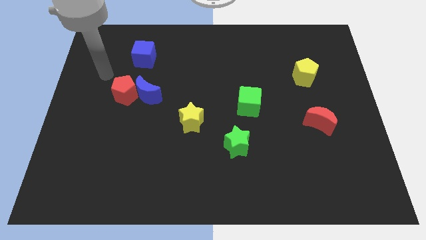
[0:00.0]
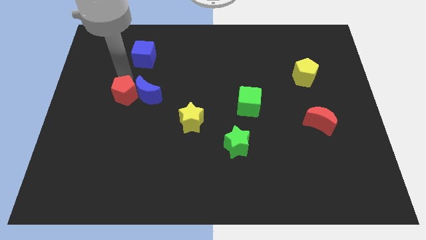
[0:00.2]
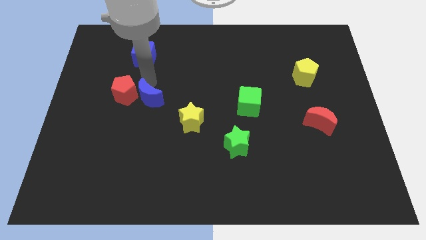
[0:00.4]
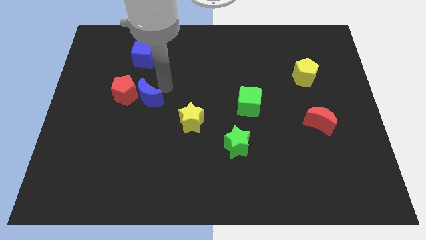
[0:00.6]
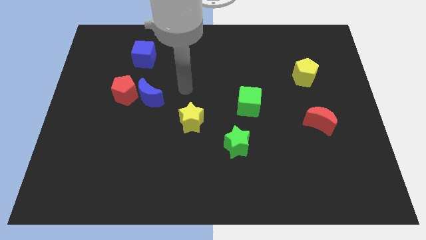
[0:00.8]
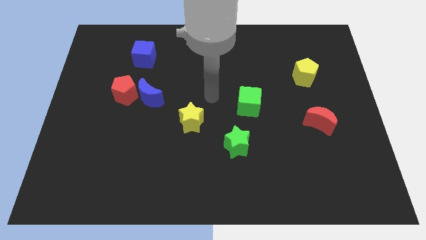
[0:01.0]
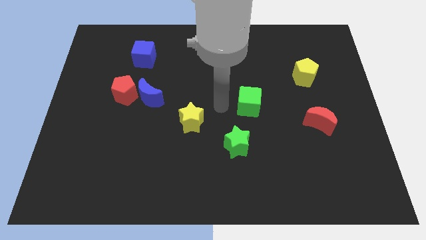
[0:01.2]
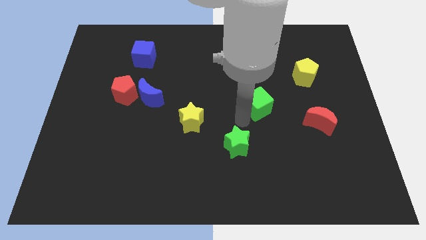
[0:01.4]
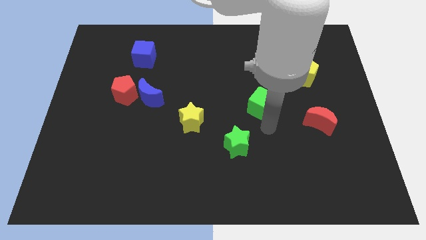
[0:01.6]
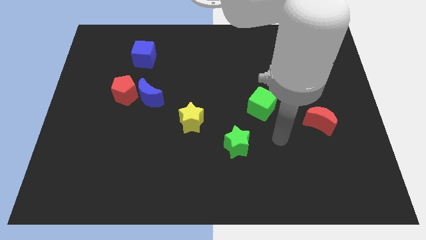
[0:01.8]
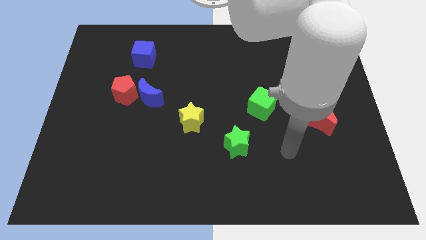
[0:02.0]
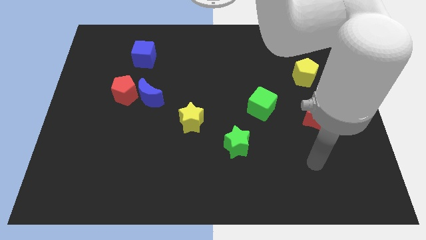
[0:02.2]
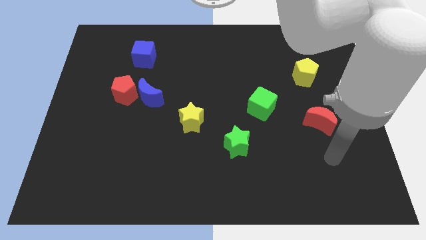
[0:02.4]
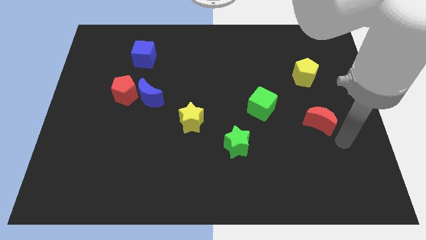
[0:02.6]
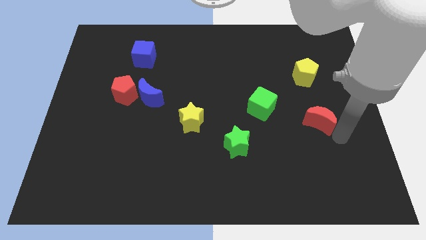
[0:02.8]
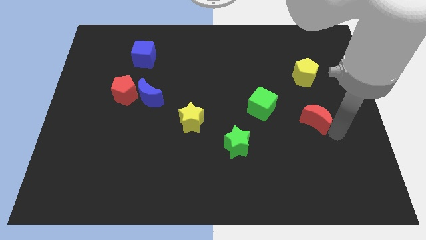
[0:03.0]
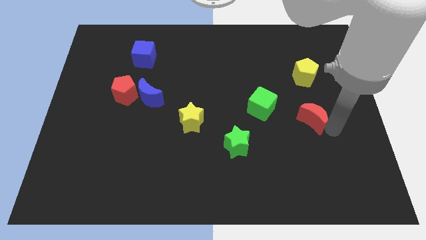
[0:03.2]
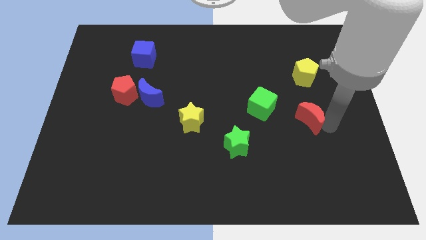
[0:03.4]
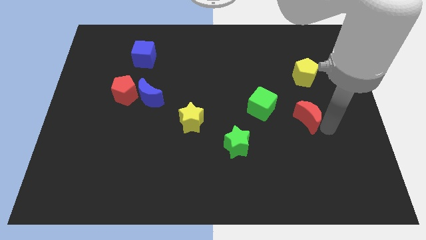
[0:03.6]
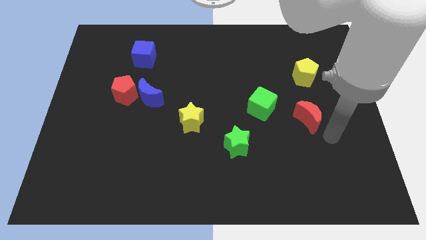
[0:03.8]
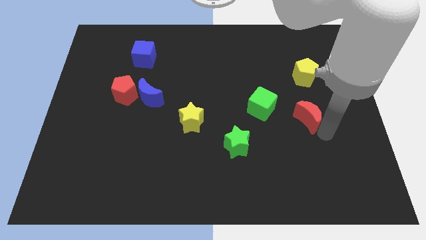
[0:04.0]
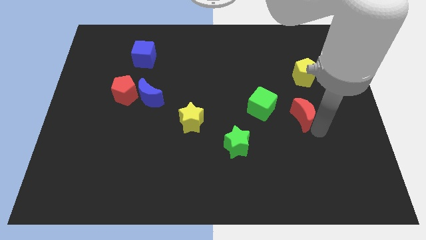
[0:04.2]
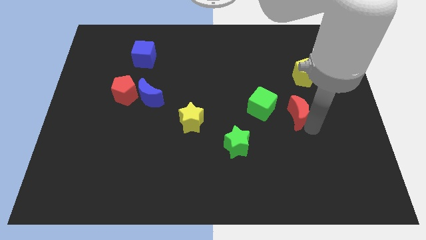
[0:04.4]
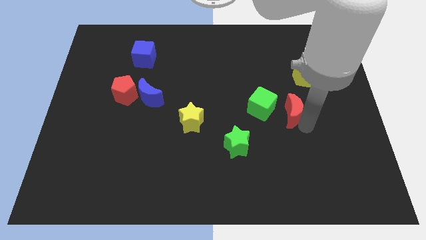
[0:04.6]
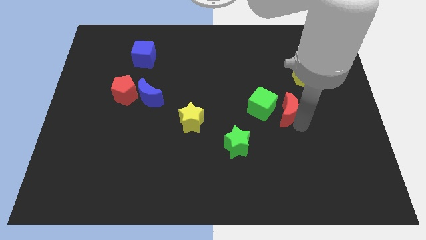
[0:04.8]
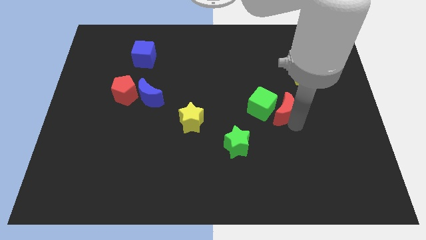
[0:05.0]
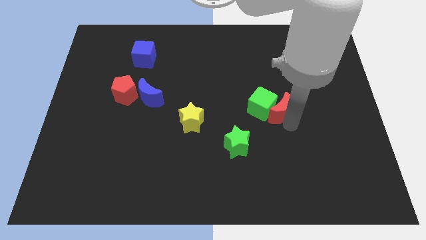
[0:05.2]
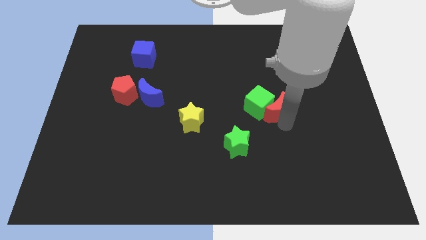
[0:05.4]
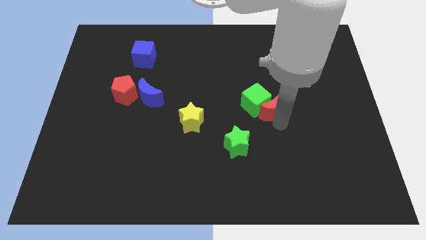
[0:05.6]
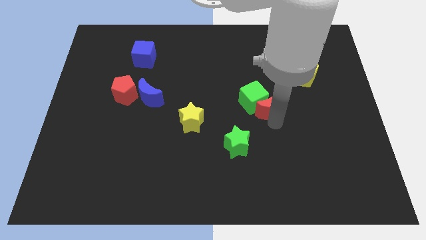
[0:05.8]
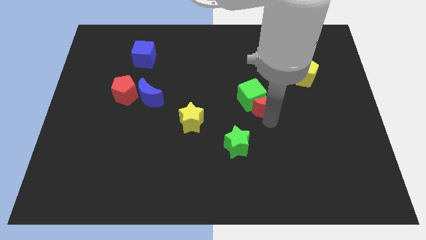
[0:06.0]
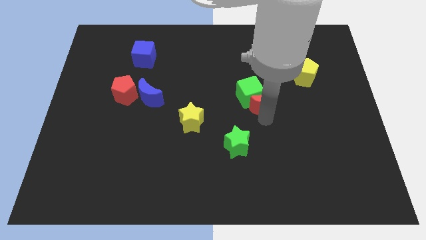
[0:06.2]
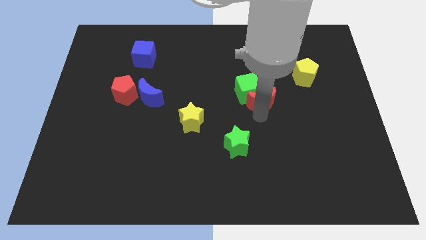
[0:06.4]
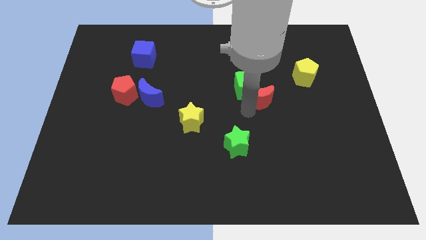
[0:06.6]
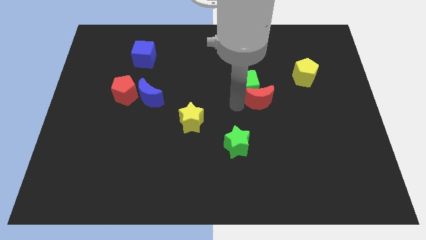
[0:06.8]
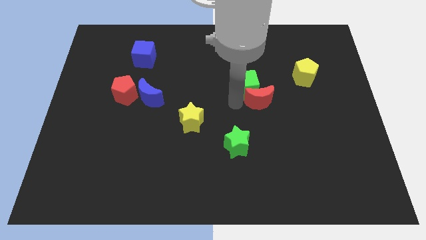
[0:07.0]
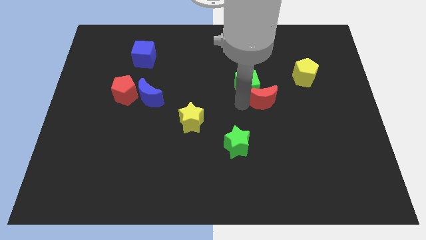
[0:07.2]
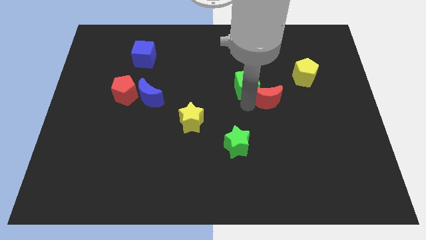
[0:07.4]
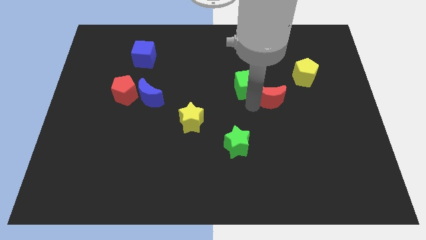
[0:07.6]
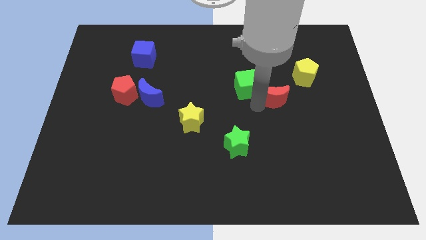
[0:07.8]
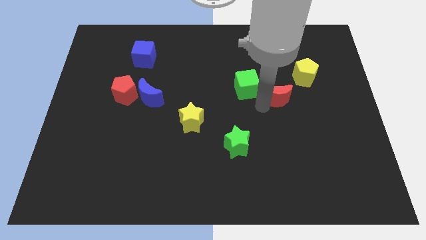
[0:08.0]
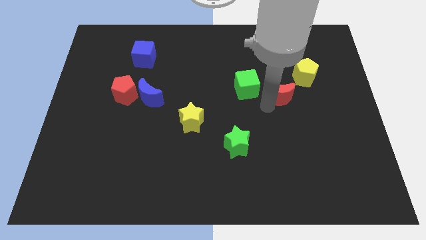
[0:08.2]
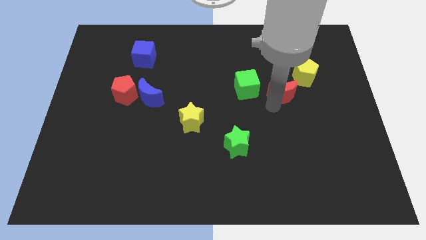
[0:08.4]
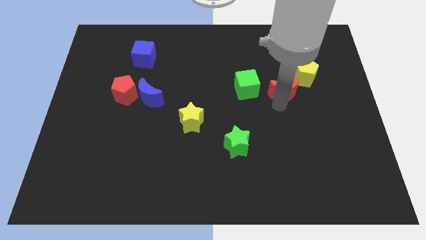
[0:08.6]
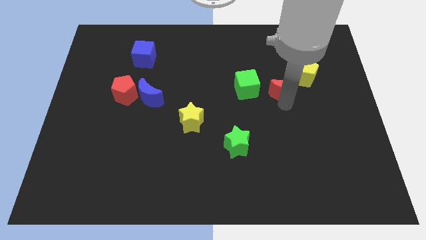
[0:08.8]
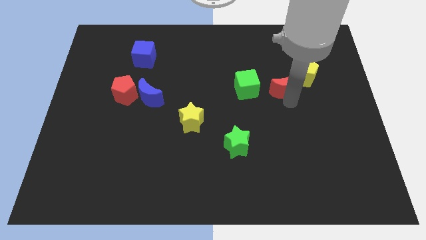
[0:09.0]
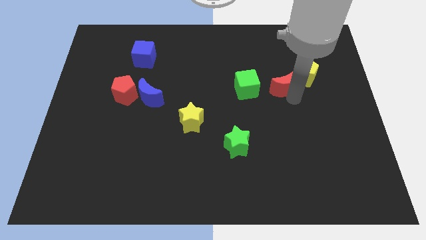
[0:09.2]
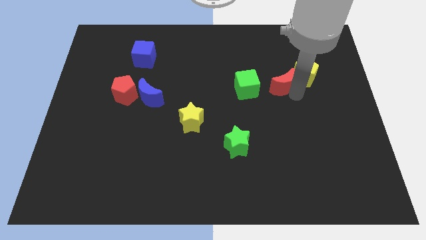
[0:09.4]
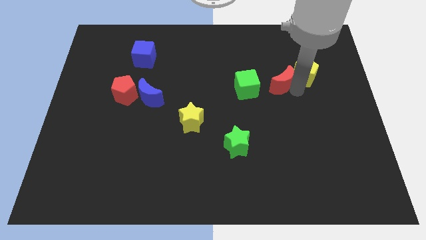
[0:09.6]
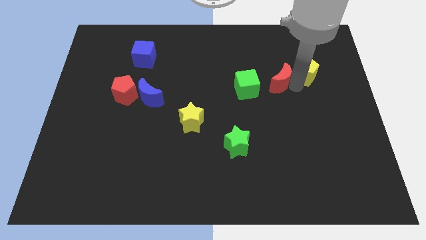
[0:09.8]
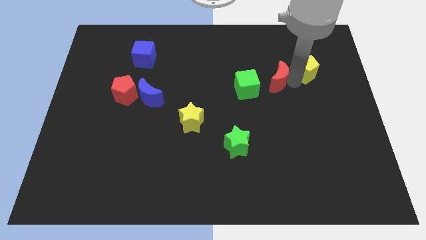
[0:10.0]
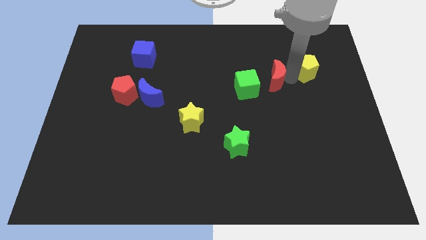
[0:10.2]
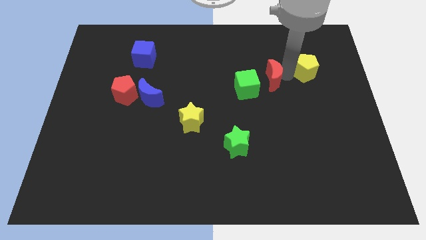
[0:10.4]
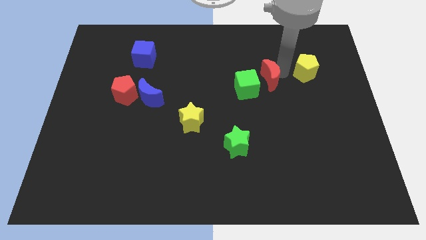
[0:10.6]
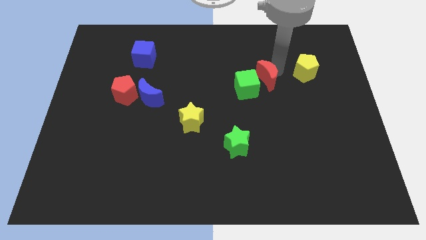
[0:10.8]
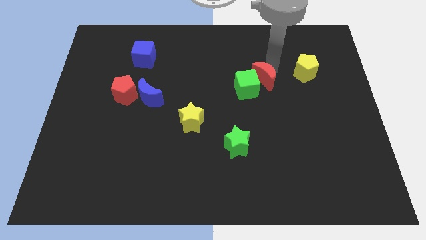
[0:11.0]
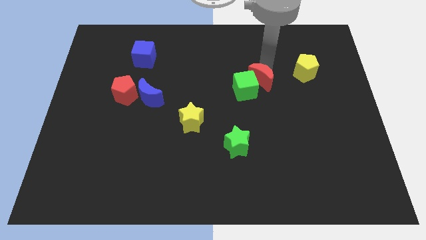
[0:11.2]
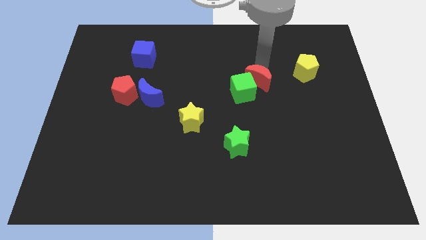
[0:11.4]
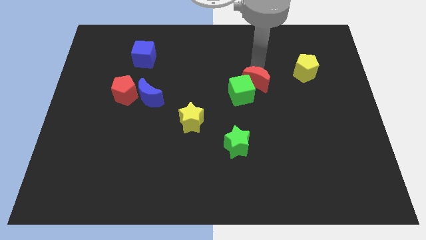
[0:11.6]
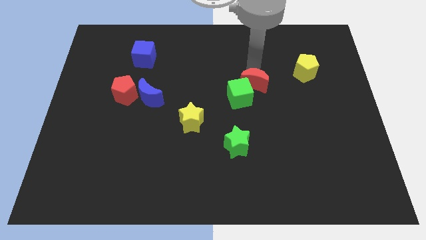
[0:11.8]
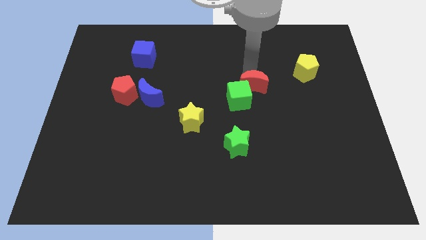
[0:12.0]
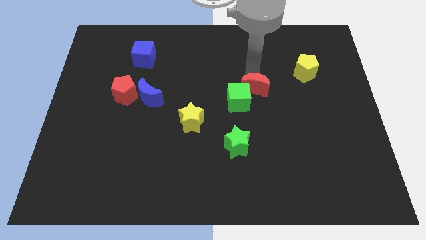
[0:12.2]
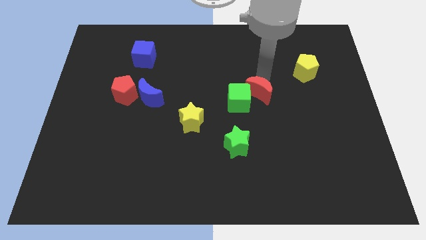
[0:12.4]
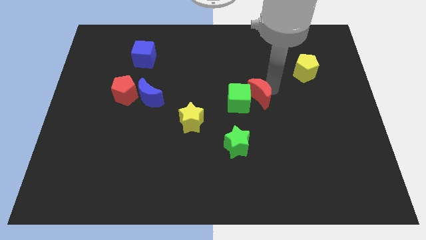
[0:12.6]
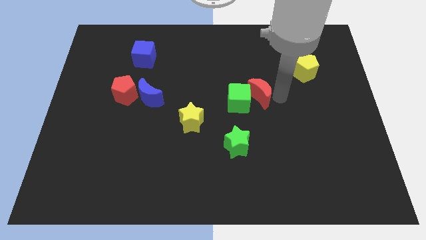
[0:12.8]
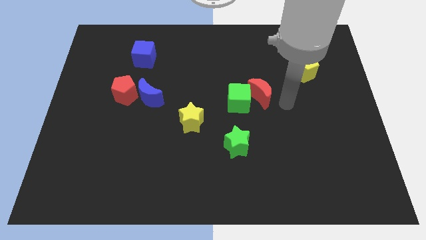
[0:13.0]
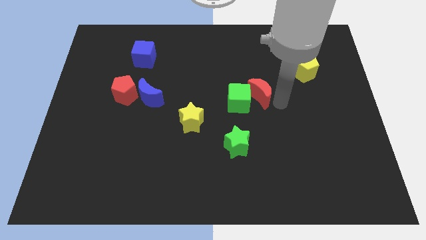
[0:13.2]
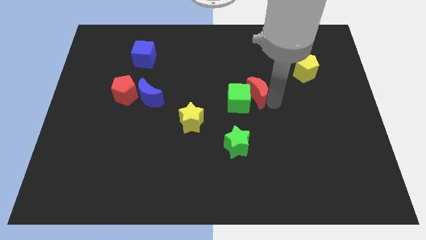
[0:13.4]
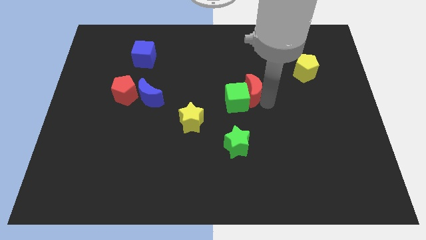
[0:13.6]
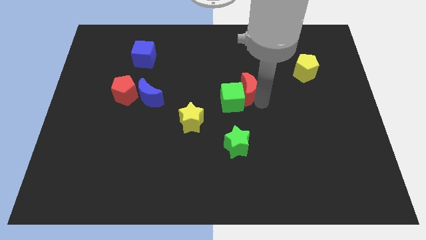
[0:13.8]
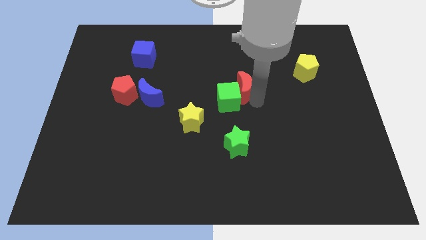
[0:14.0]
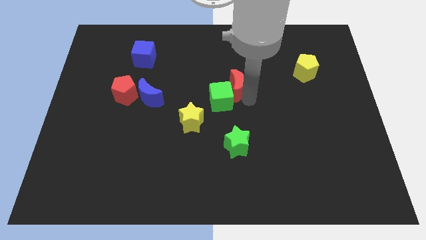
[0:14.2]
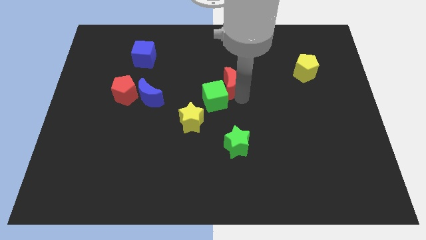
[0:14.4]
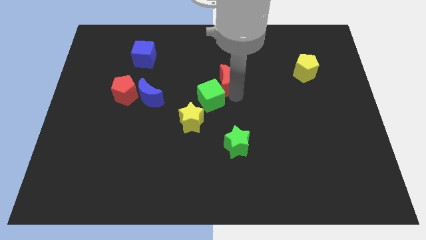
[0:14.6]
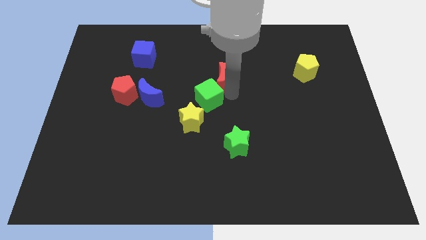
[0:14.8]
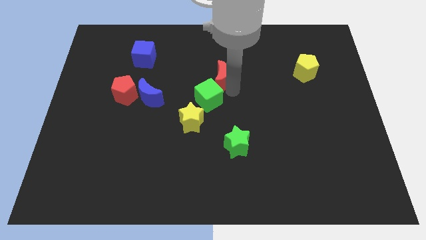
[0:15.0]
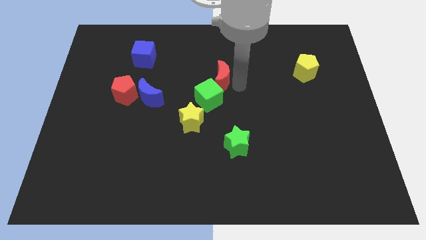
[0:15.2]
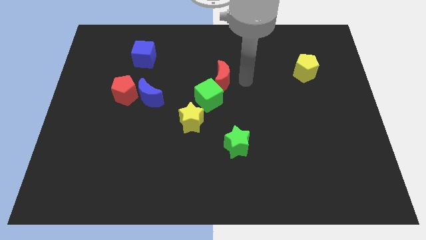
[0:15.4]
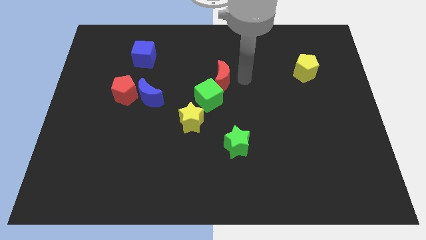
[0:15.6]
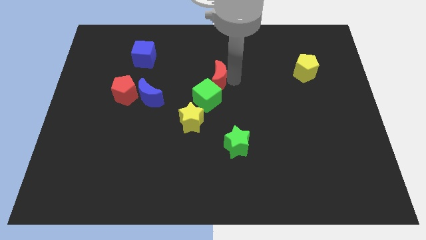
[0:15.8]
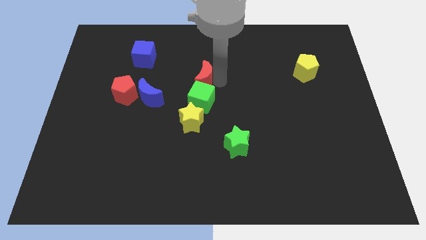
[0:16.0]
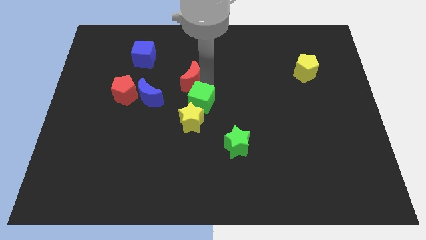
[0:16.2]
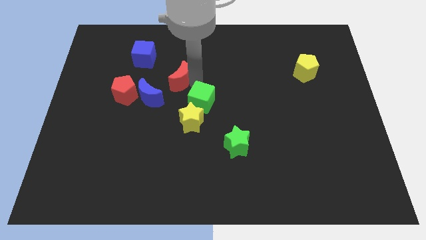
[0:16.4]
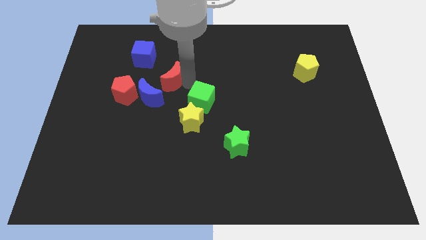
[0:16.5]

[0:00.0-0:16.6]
push the red moon to the bottom right of the blue cube
